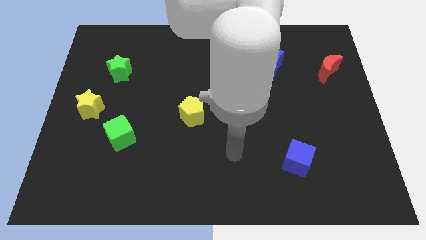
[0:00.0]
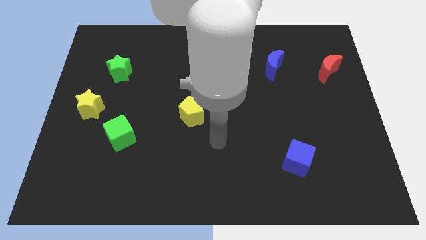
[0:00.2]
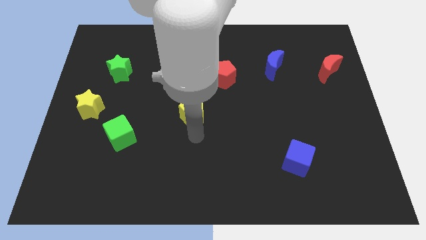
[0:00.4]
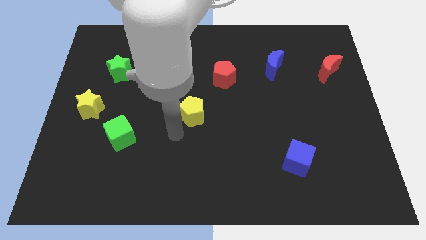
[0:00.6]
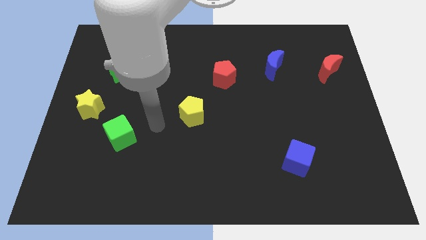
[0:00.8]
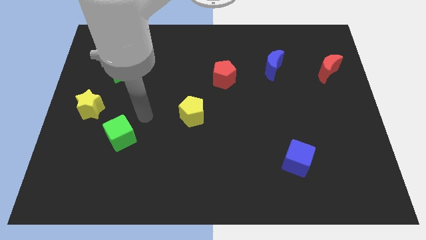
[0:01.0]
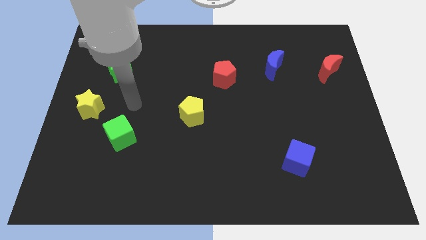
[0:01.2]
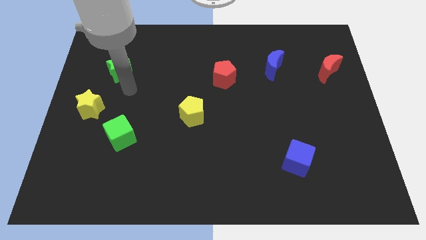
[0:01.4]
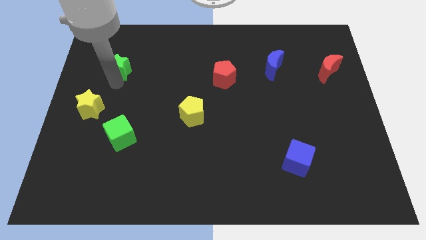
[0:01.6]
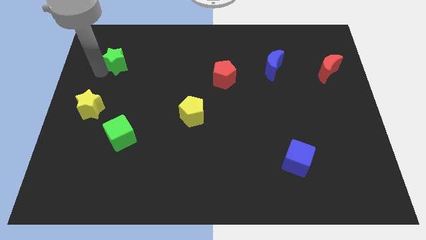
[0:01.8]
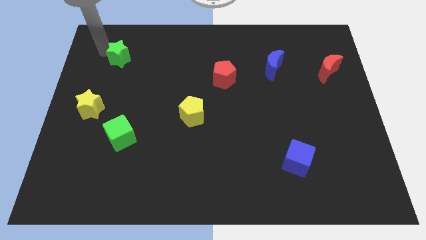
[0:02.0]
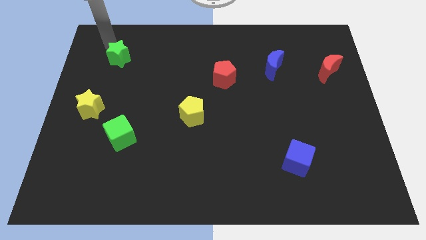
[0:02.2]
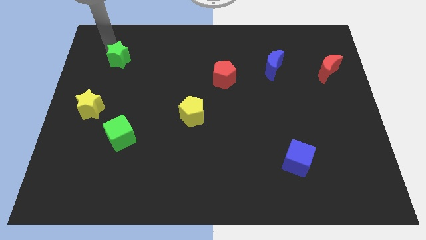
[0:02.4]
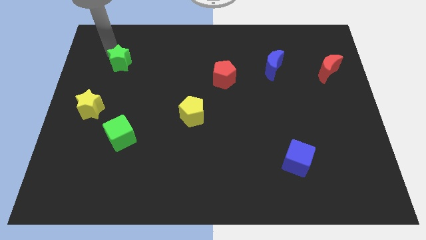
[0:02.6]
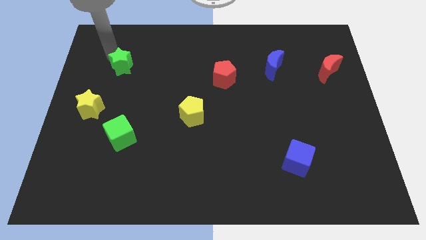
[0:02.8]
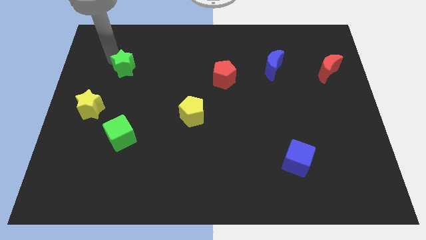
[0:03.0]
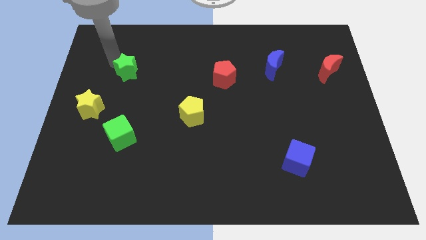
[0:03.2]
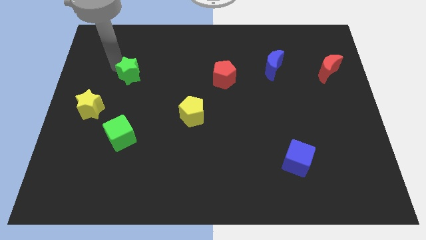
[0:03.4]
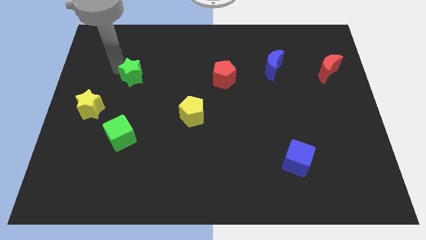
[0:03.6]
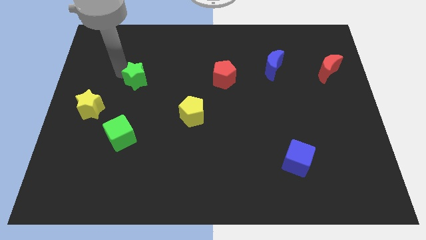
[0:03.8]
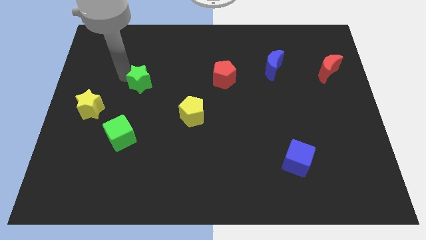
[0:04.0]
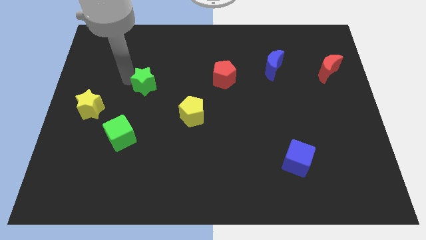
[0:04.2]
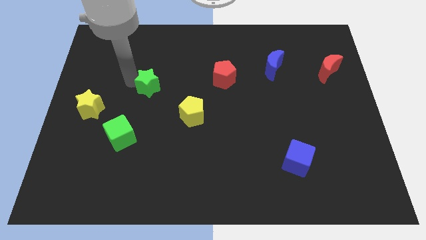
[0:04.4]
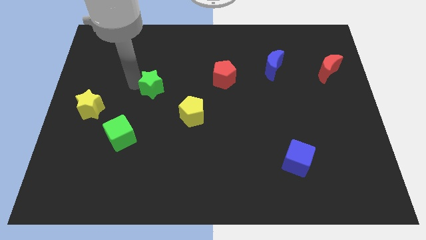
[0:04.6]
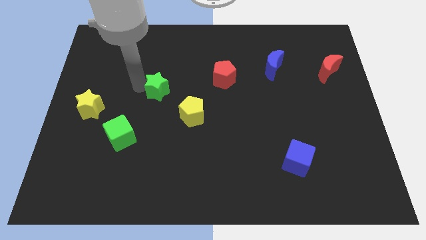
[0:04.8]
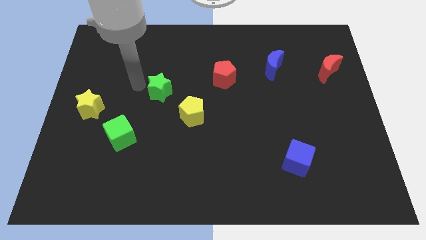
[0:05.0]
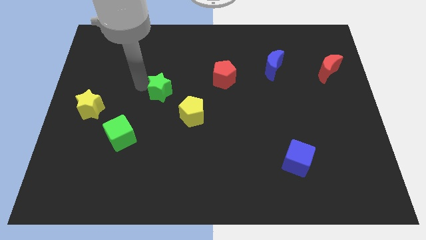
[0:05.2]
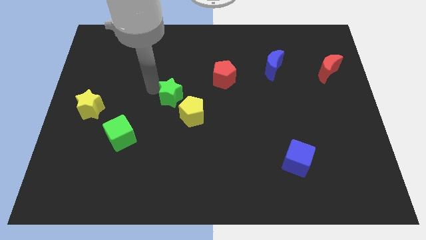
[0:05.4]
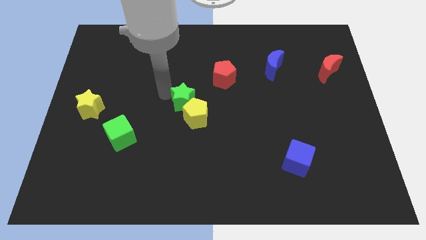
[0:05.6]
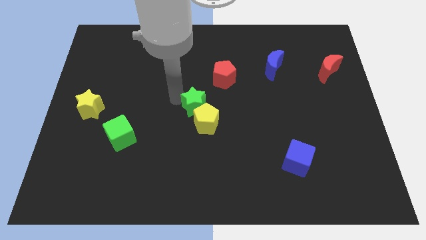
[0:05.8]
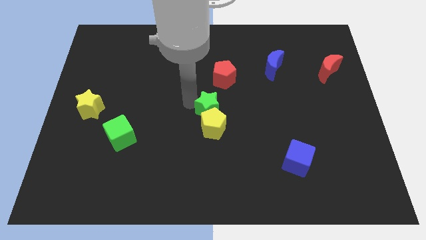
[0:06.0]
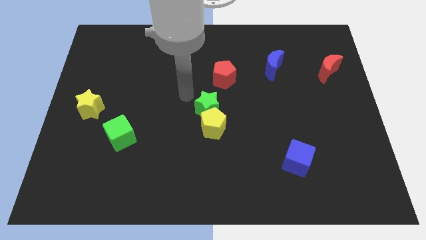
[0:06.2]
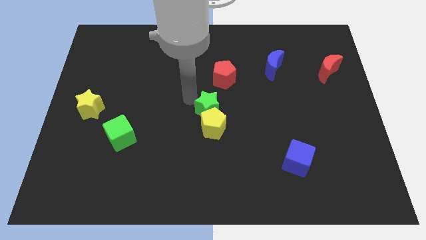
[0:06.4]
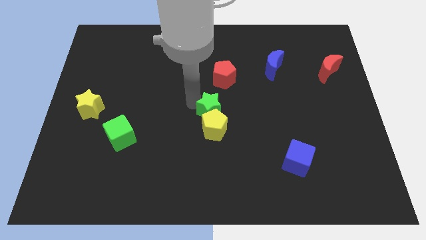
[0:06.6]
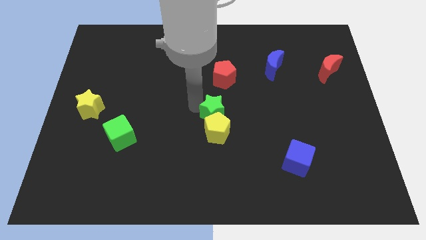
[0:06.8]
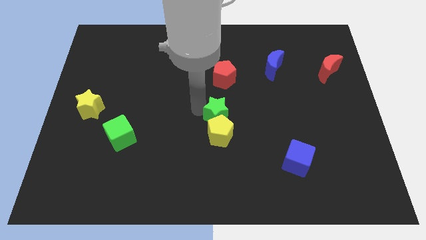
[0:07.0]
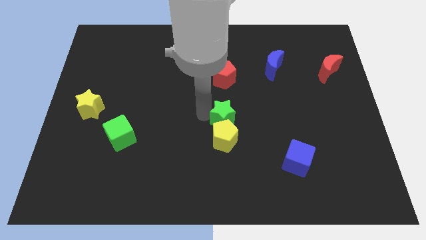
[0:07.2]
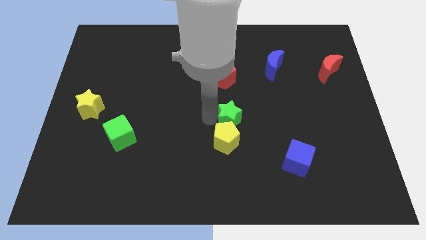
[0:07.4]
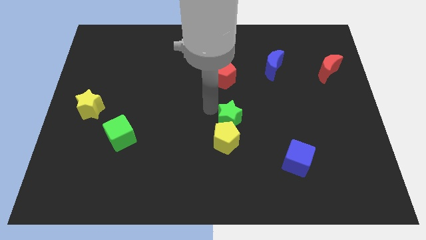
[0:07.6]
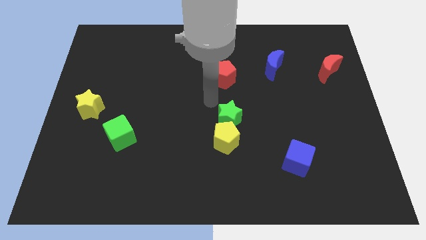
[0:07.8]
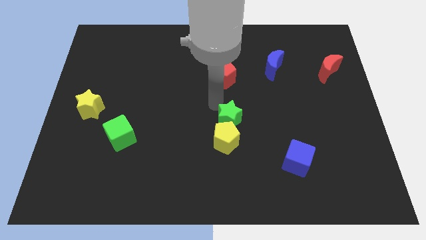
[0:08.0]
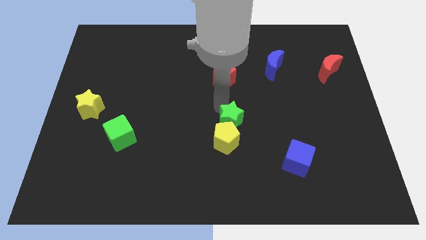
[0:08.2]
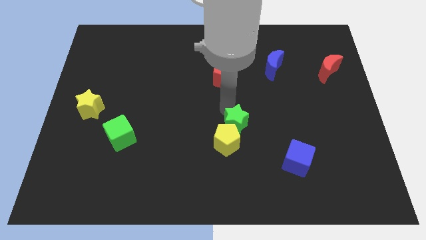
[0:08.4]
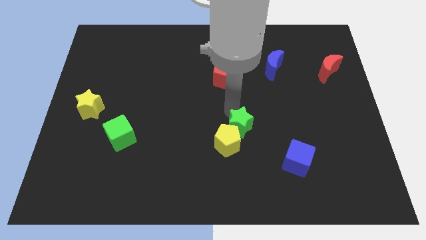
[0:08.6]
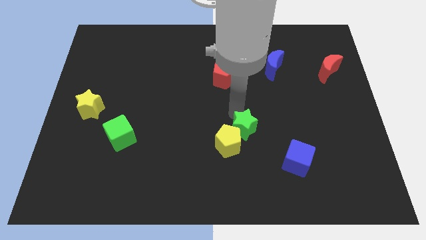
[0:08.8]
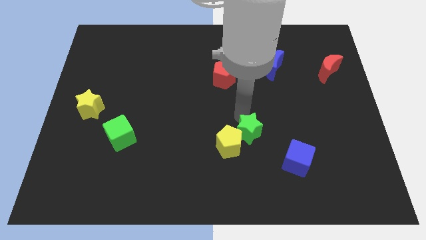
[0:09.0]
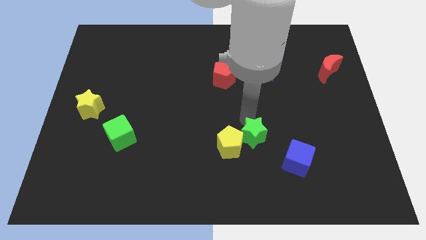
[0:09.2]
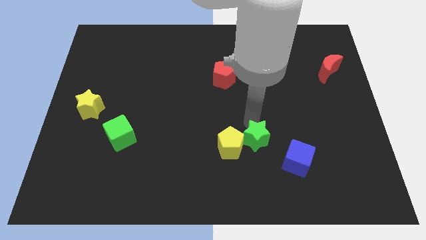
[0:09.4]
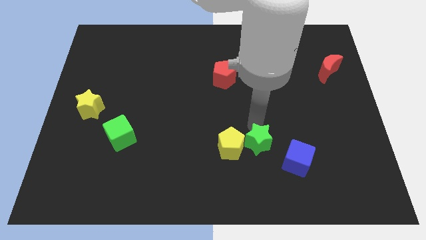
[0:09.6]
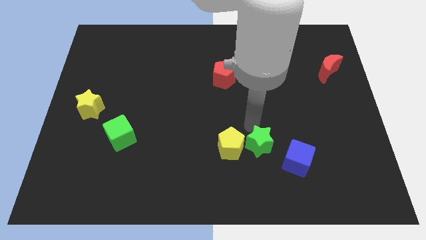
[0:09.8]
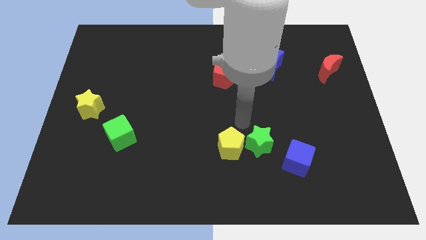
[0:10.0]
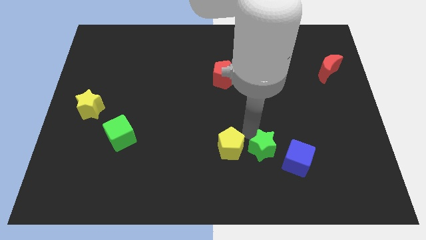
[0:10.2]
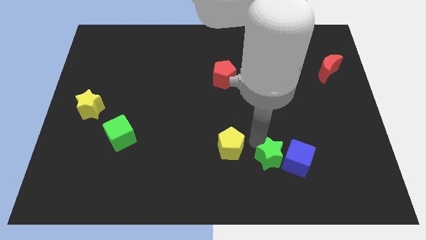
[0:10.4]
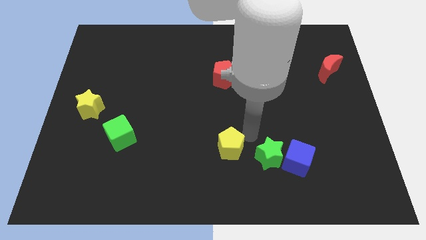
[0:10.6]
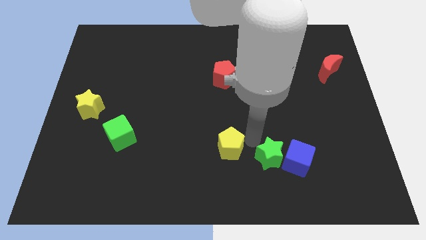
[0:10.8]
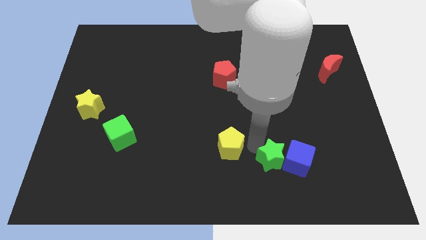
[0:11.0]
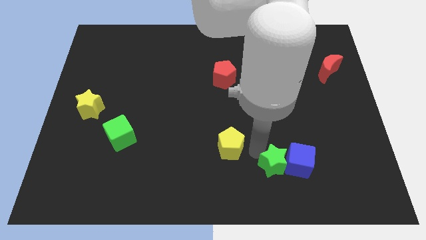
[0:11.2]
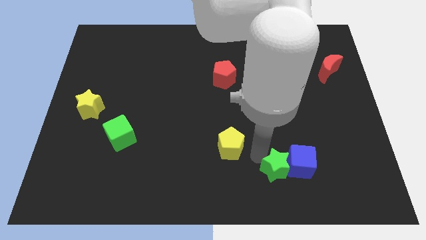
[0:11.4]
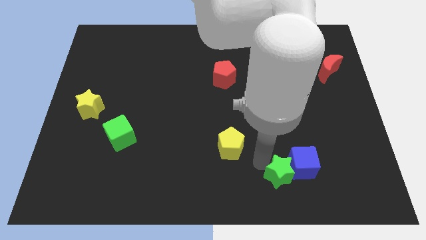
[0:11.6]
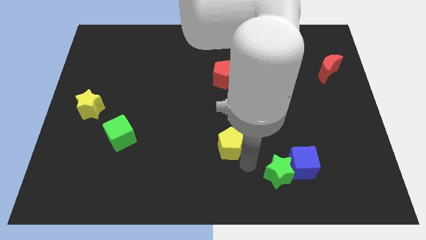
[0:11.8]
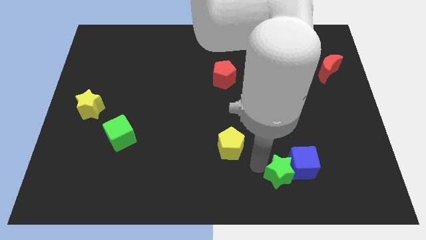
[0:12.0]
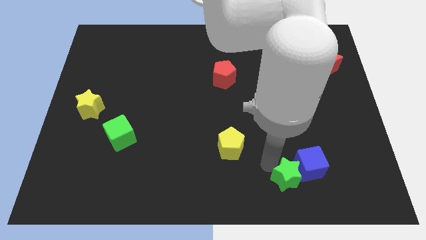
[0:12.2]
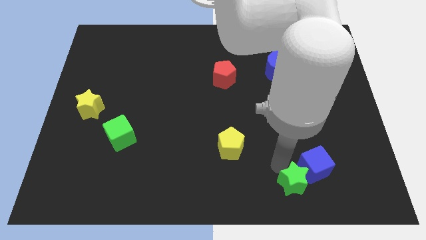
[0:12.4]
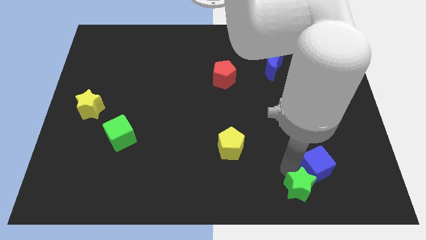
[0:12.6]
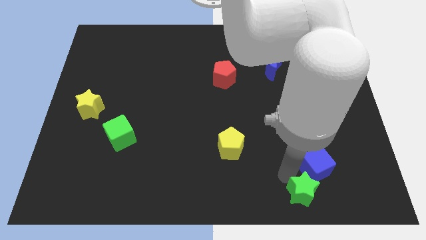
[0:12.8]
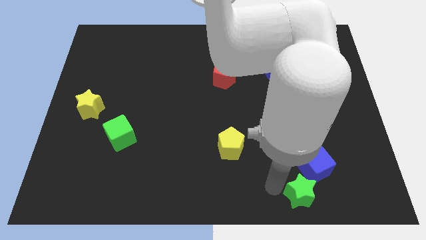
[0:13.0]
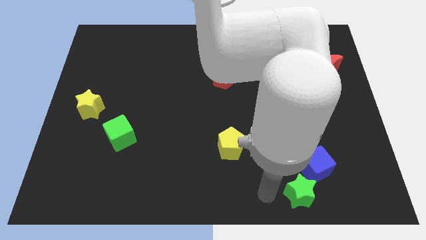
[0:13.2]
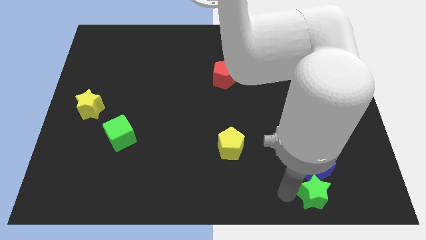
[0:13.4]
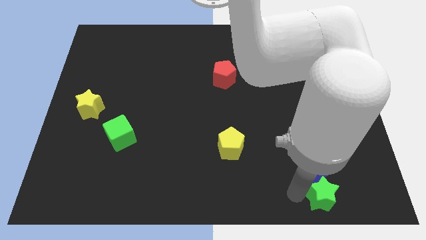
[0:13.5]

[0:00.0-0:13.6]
slide the green star to the bottom right of the blue cube

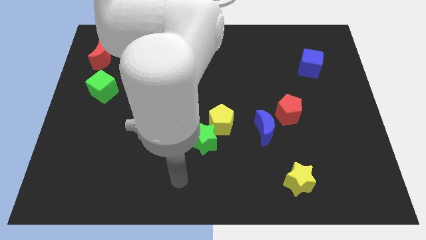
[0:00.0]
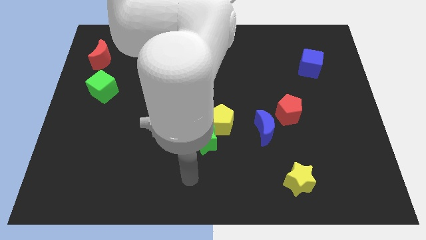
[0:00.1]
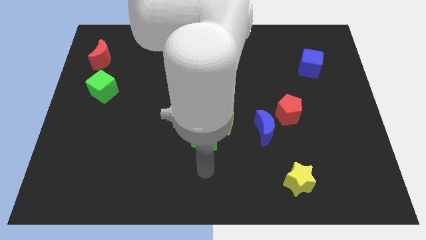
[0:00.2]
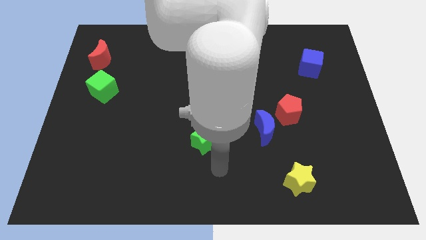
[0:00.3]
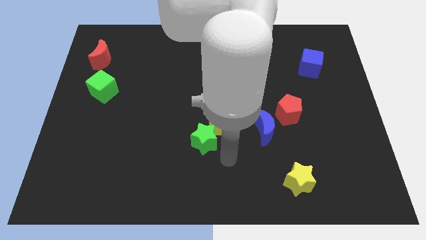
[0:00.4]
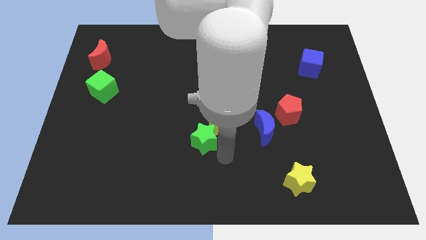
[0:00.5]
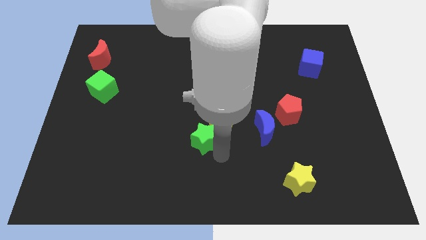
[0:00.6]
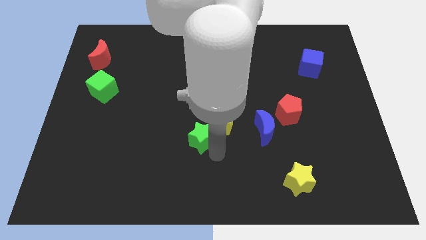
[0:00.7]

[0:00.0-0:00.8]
push the green star to the left of the yellow pentagon
